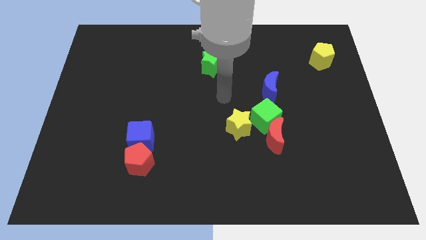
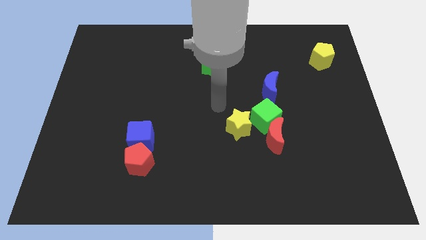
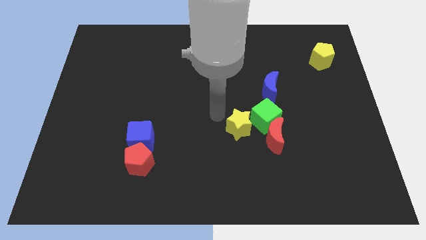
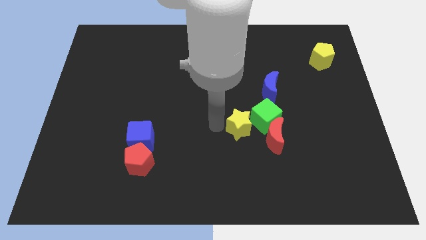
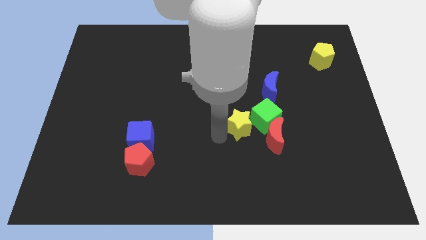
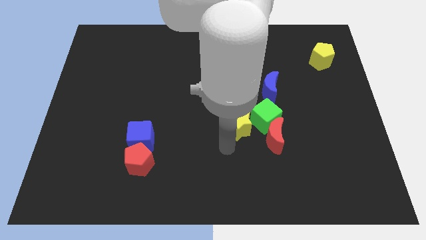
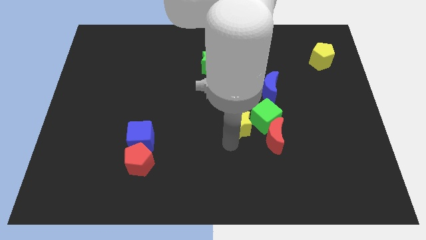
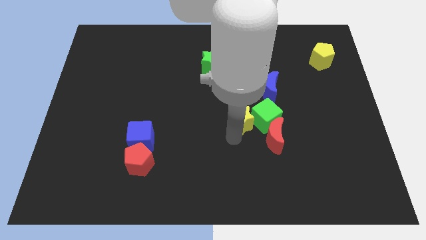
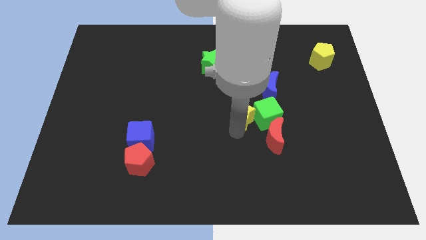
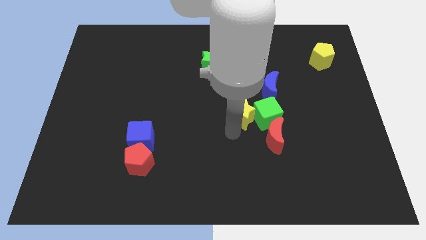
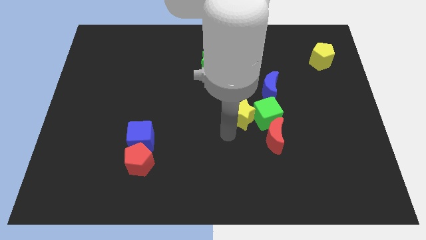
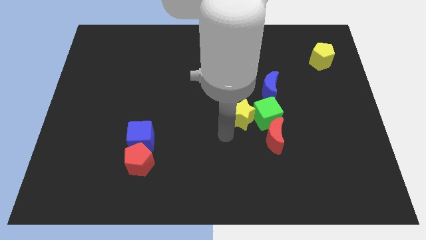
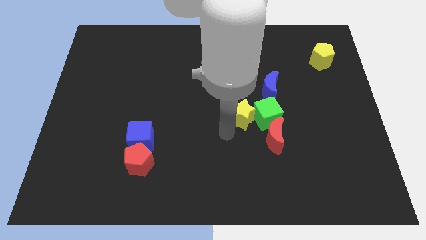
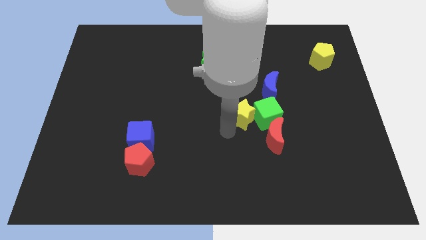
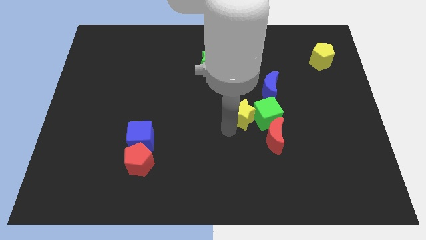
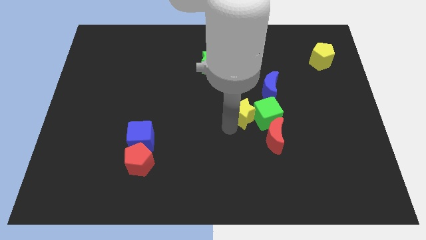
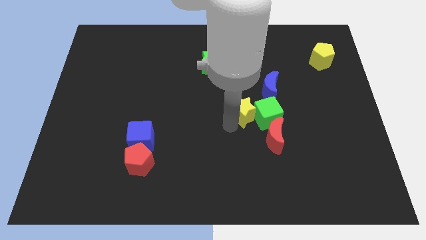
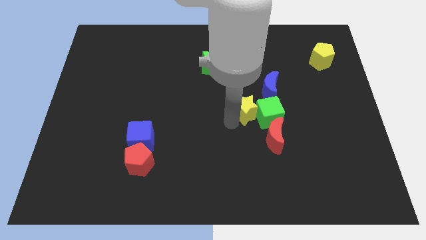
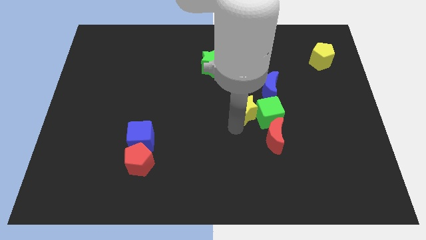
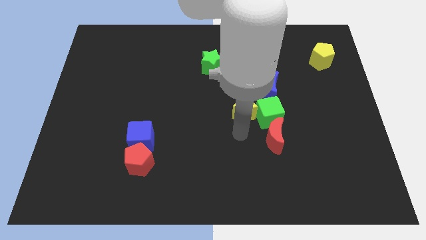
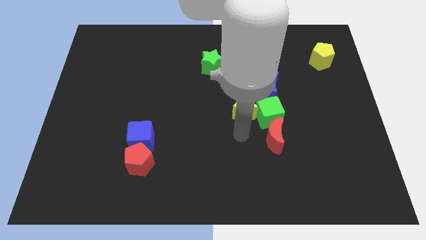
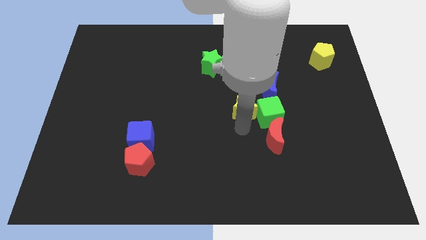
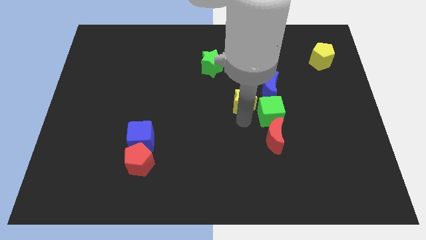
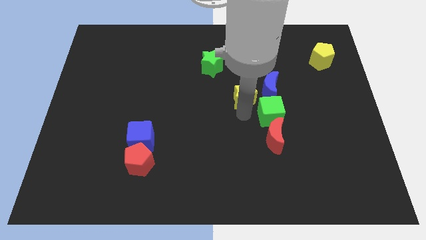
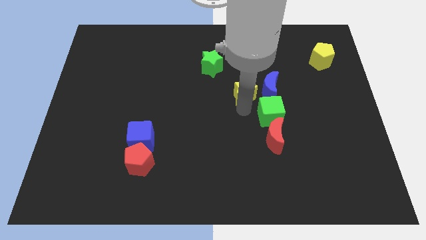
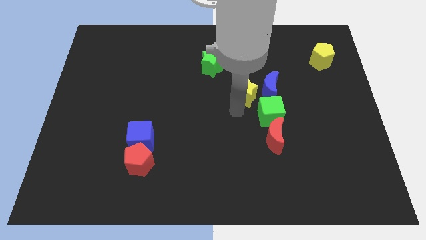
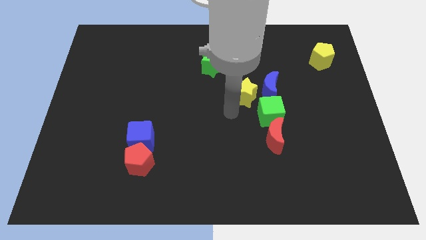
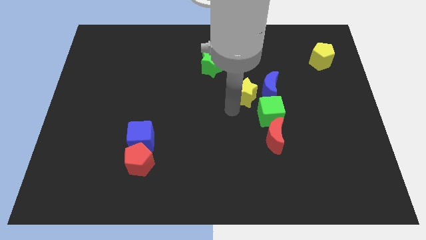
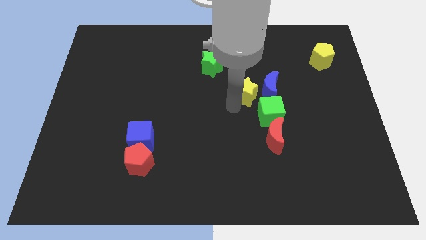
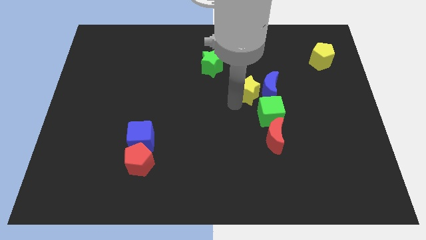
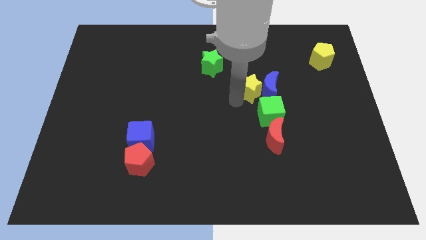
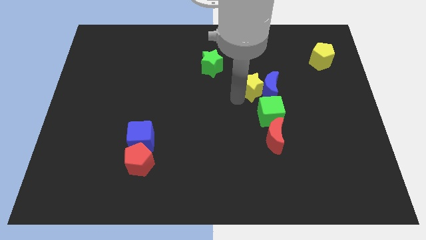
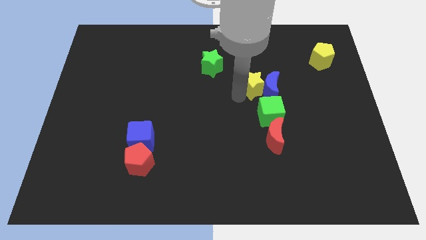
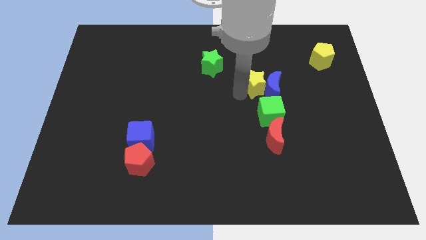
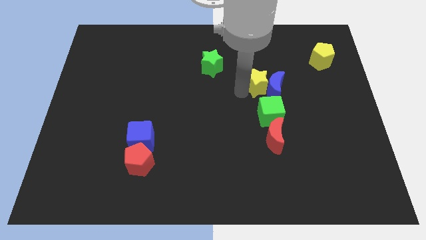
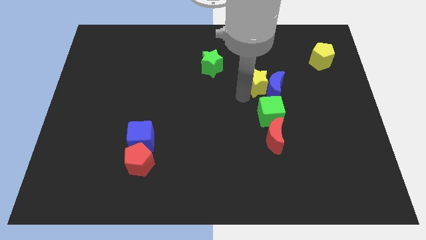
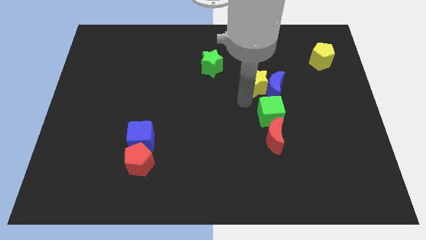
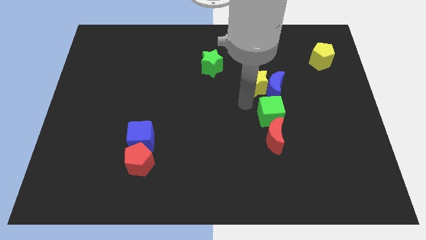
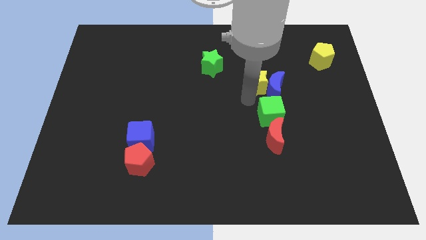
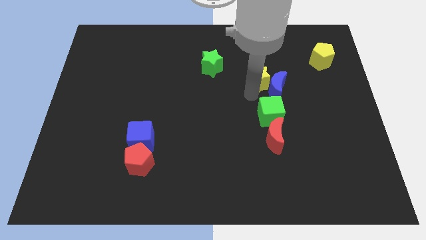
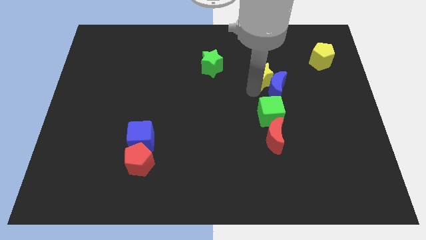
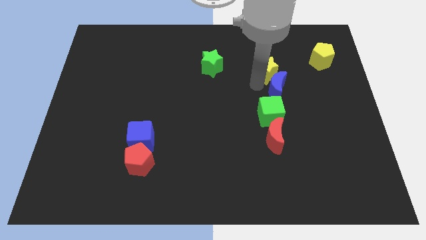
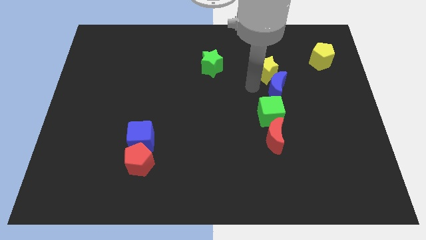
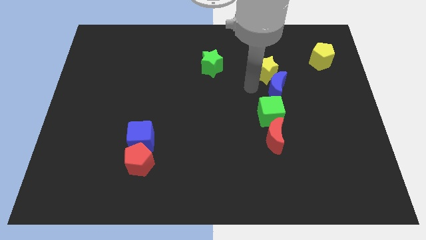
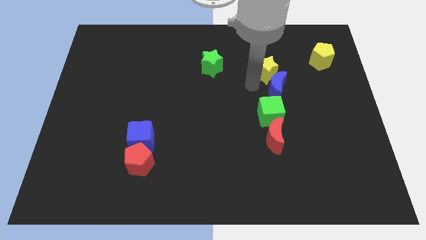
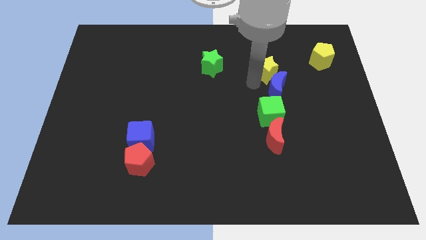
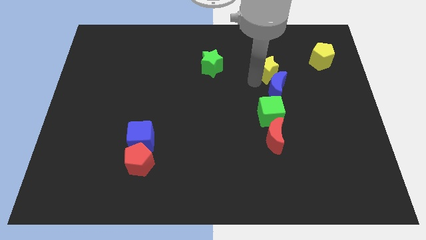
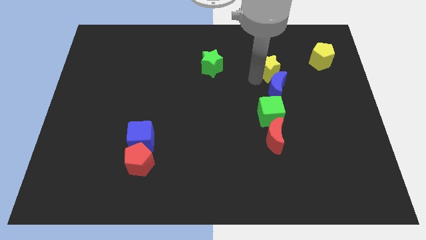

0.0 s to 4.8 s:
move the yellow star left of the yellow pentagon

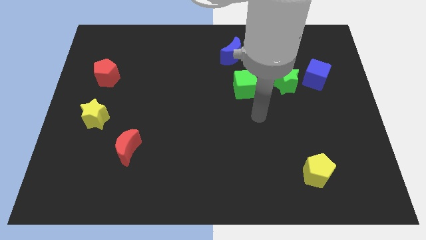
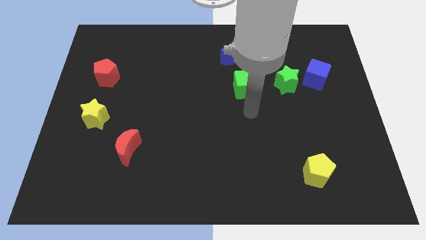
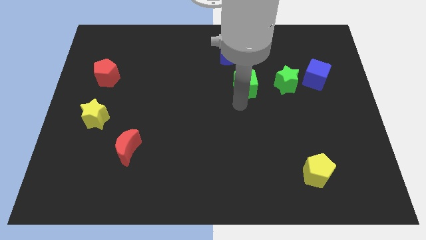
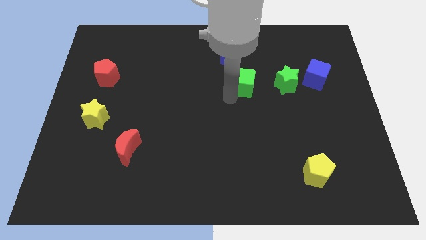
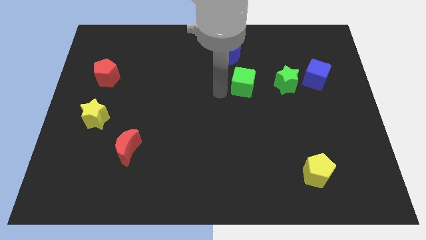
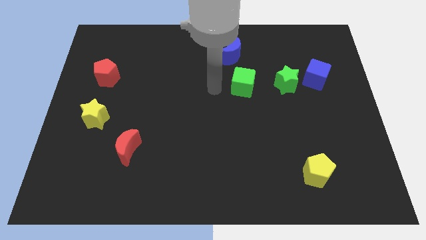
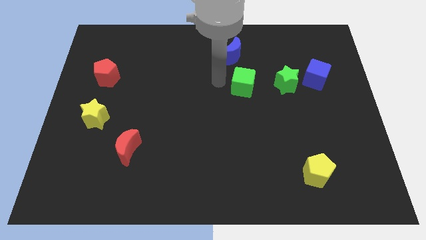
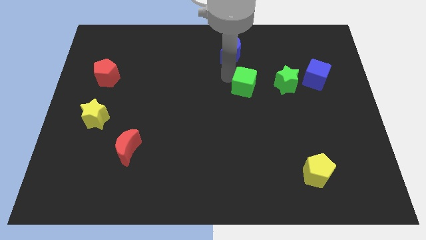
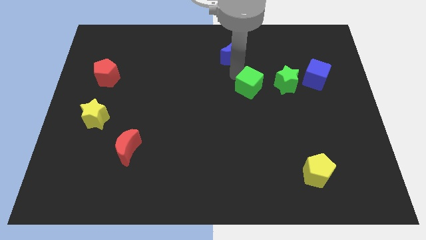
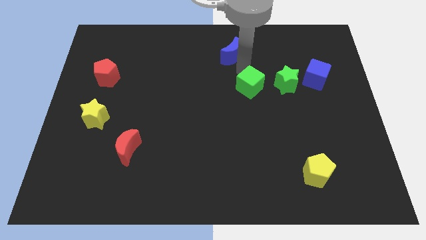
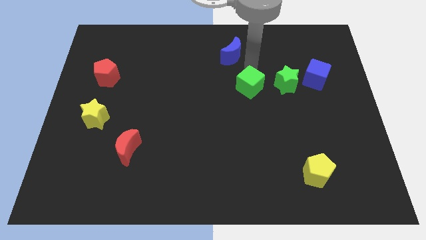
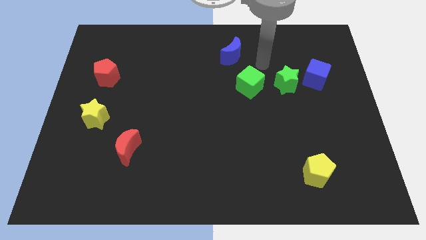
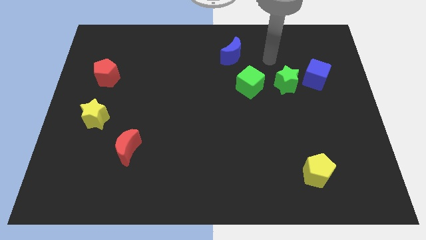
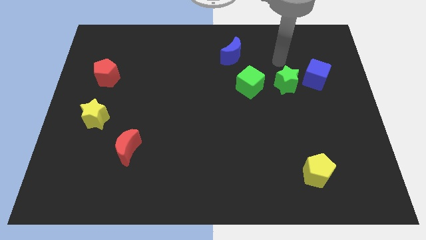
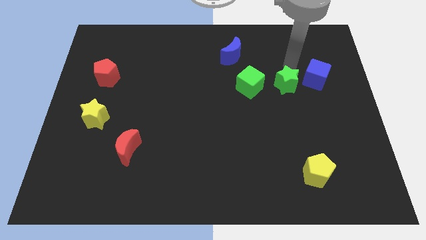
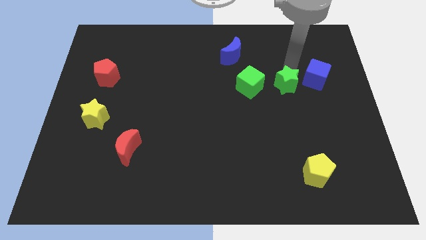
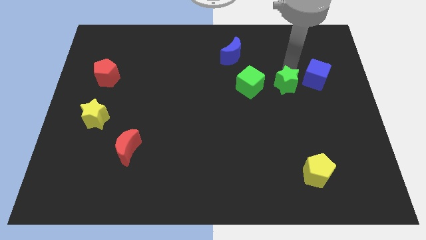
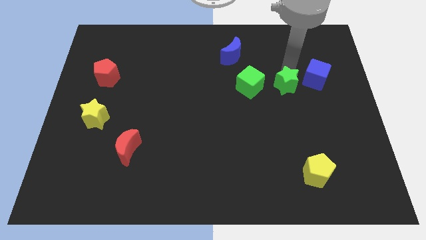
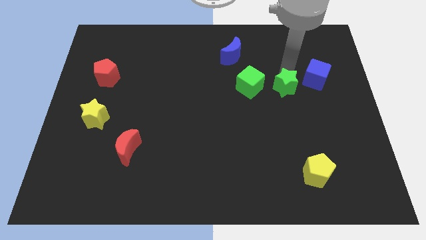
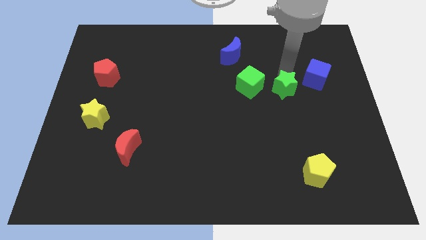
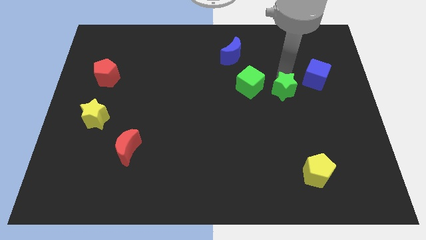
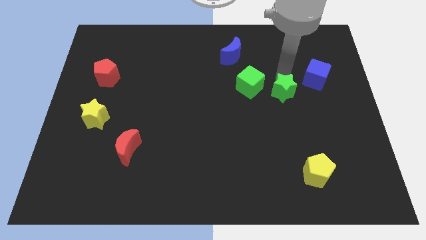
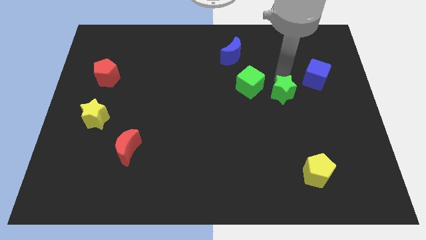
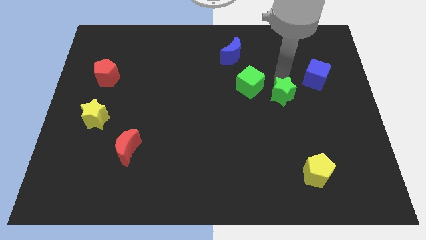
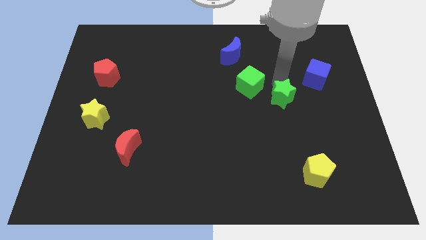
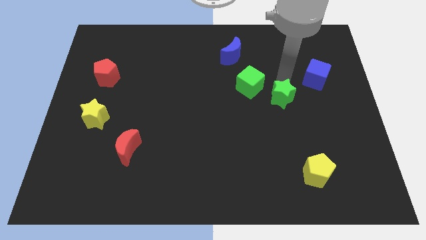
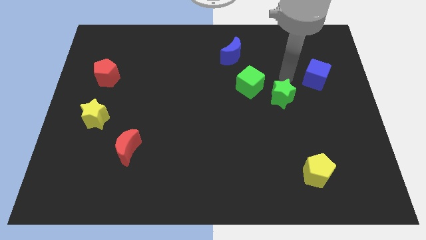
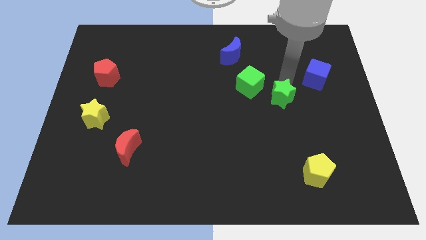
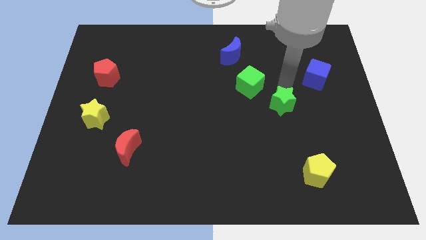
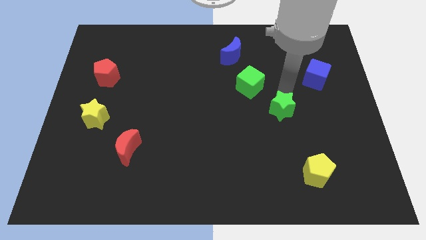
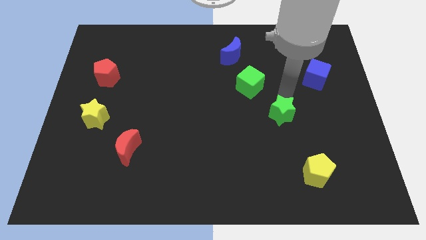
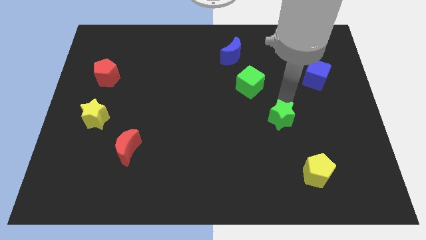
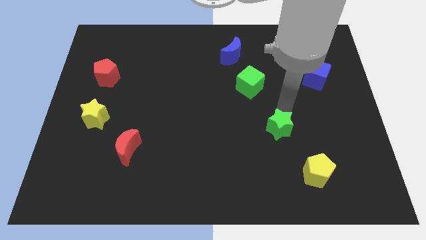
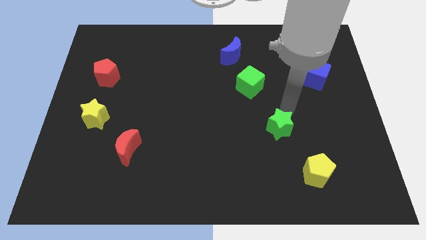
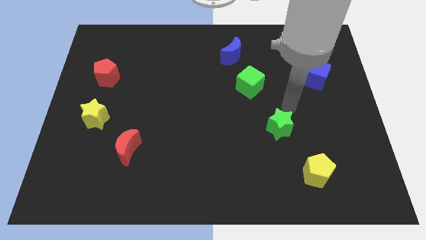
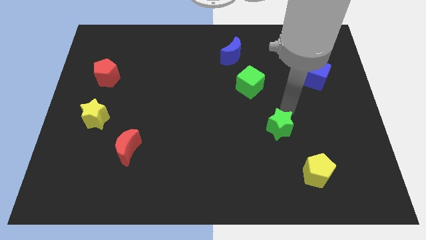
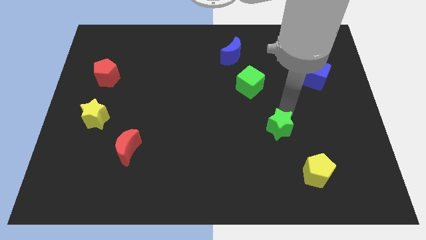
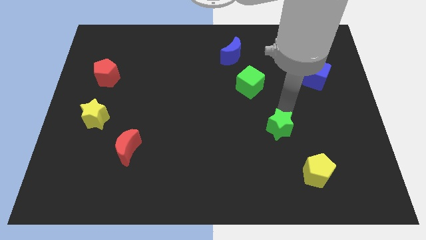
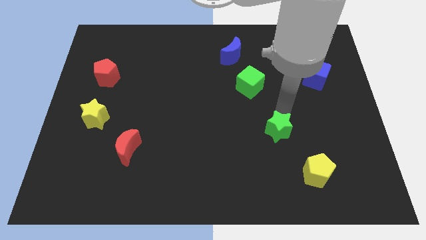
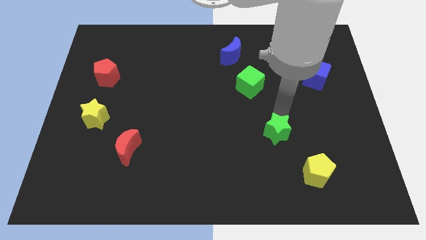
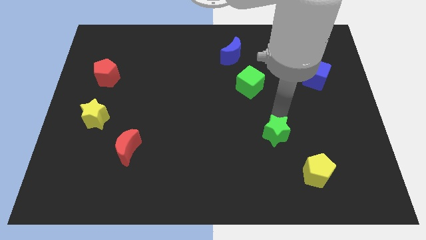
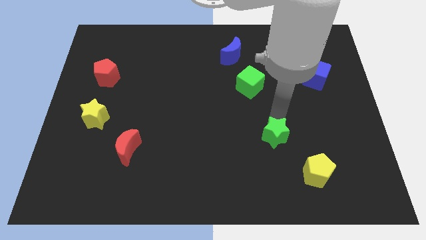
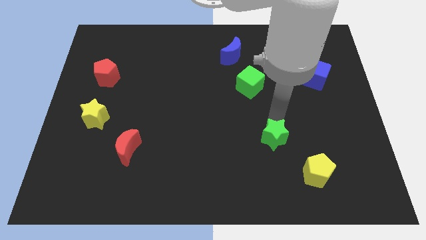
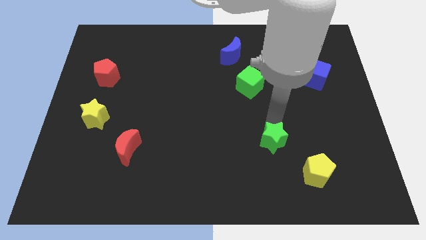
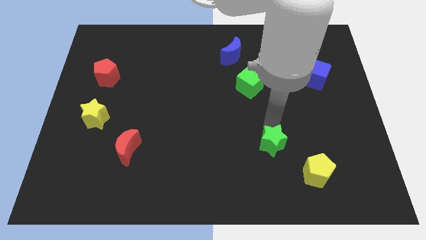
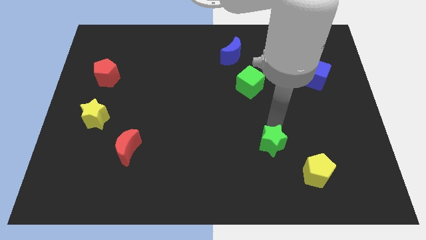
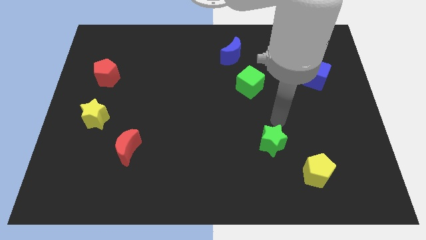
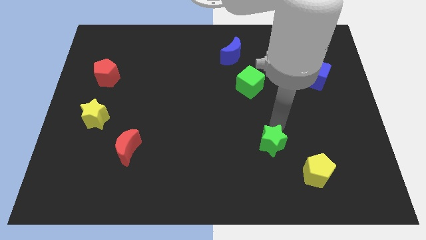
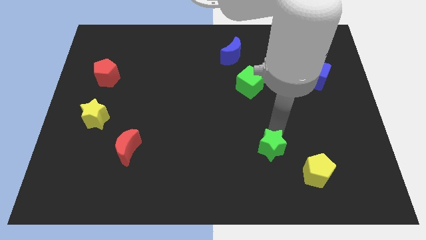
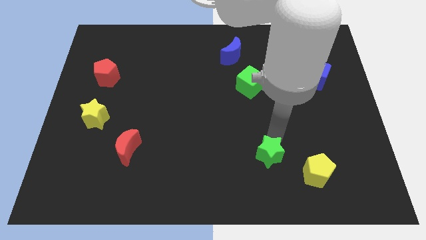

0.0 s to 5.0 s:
move the green star to the left side of the yellow pentagon
